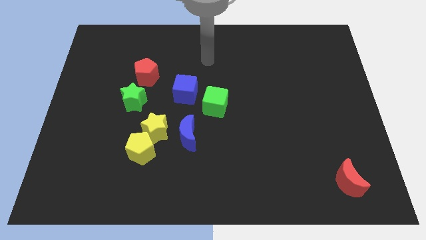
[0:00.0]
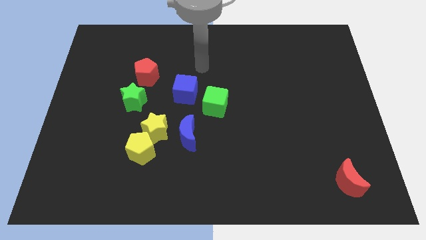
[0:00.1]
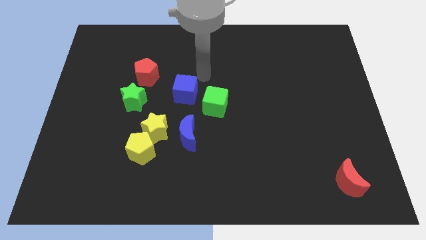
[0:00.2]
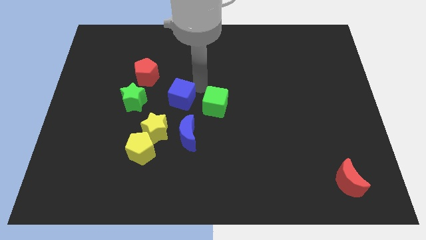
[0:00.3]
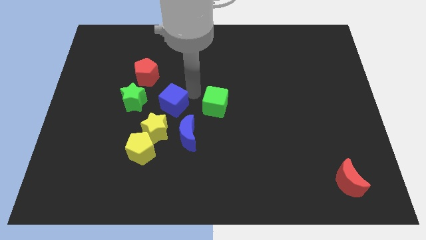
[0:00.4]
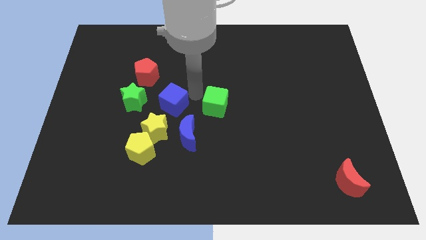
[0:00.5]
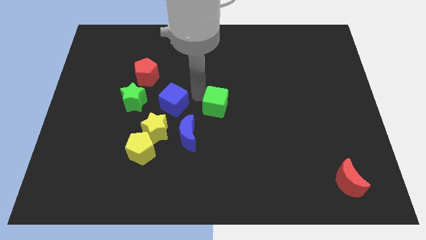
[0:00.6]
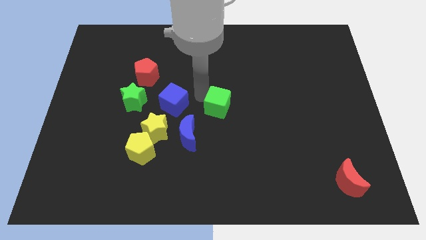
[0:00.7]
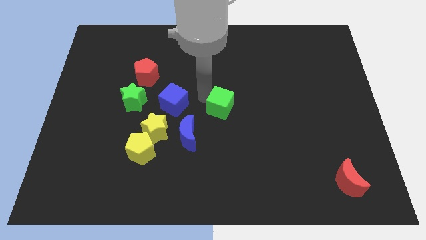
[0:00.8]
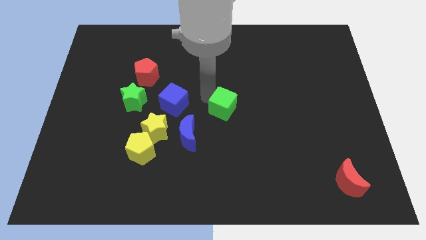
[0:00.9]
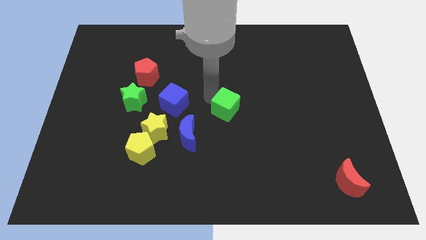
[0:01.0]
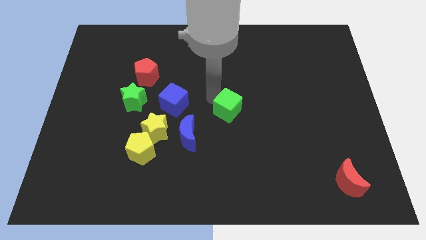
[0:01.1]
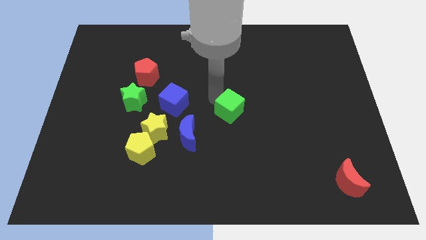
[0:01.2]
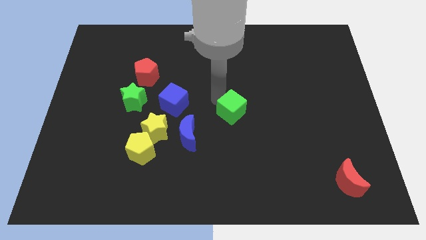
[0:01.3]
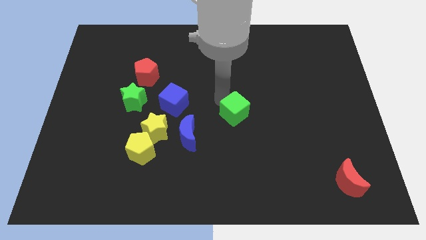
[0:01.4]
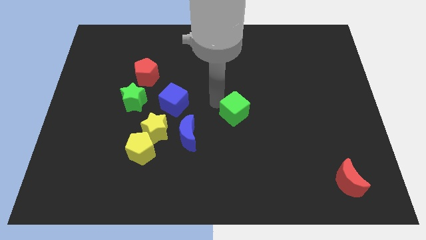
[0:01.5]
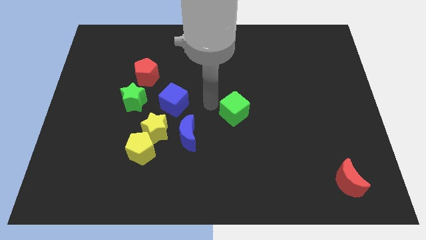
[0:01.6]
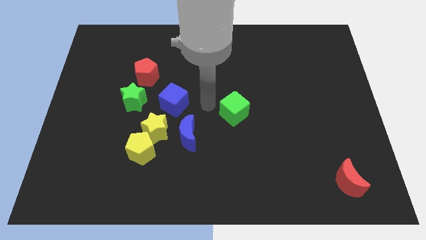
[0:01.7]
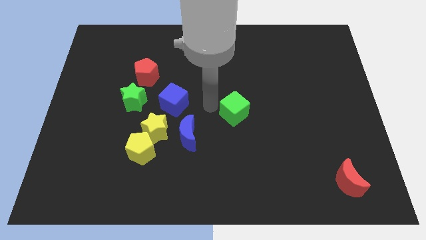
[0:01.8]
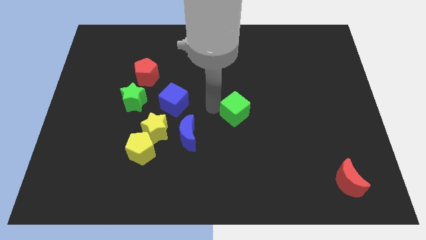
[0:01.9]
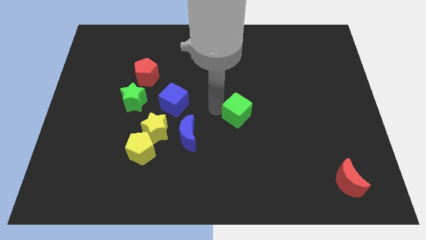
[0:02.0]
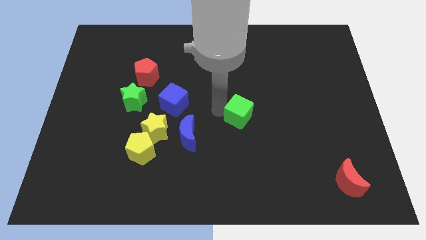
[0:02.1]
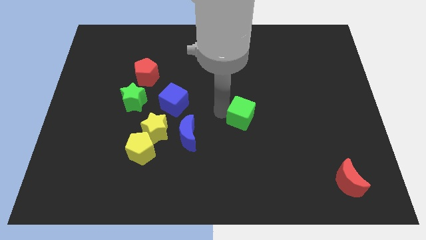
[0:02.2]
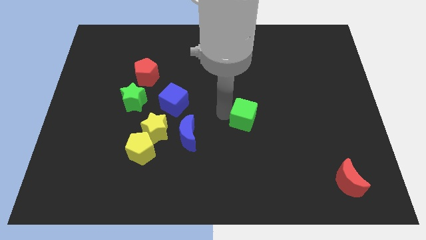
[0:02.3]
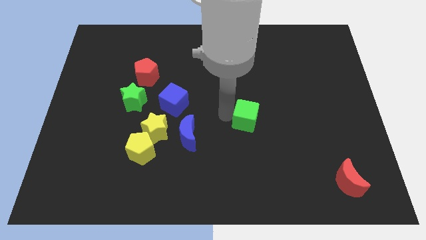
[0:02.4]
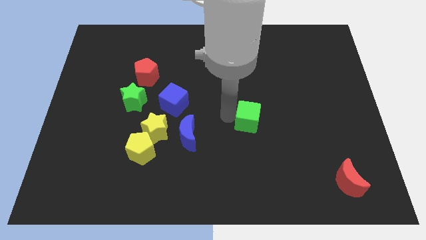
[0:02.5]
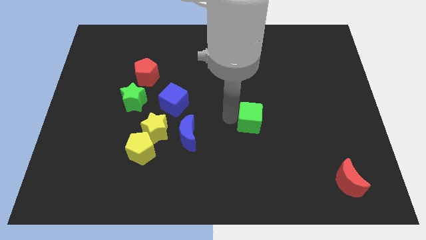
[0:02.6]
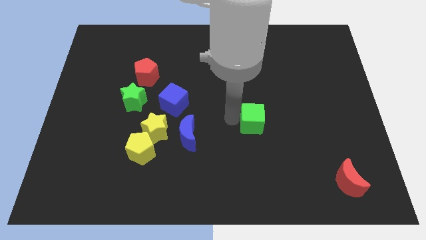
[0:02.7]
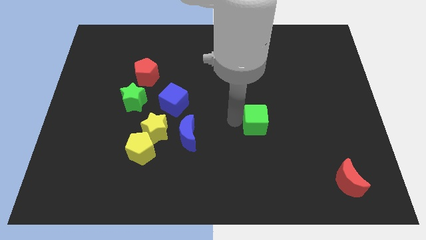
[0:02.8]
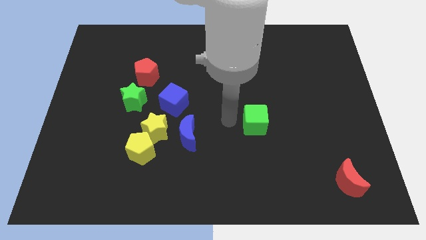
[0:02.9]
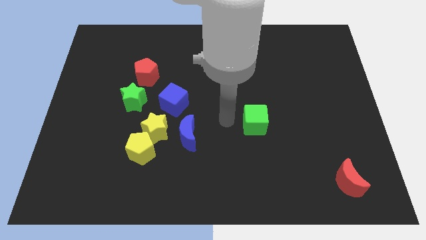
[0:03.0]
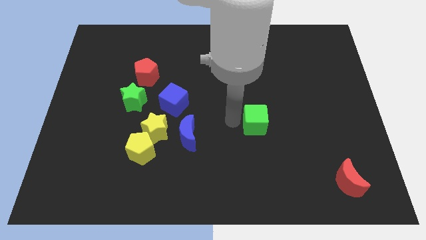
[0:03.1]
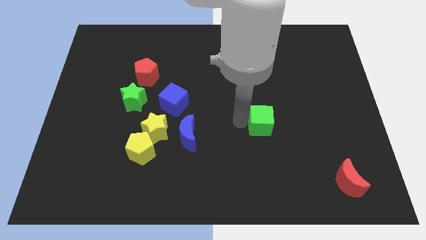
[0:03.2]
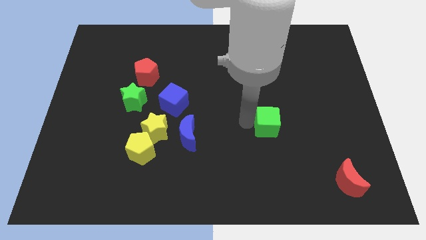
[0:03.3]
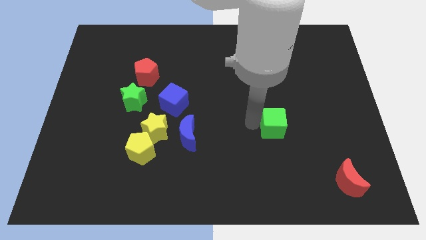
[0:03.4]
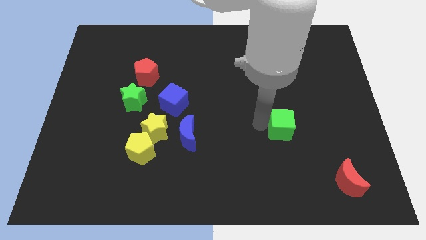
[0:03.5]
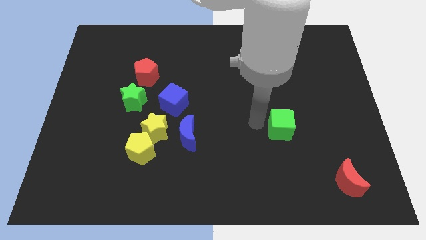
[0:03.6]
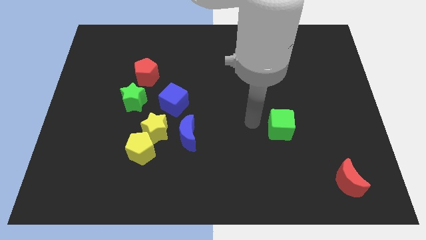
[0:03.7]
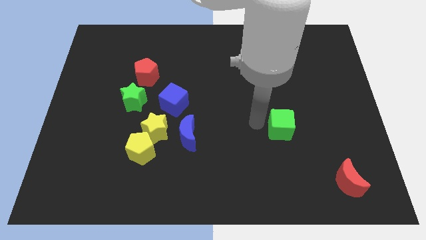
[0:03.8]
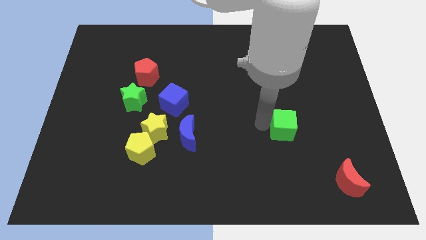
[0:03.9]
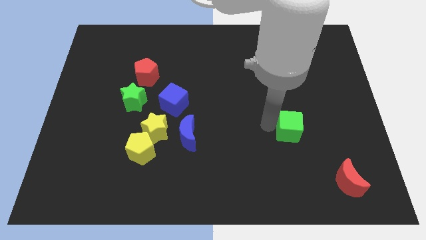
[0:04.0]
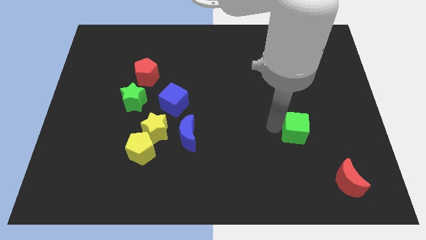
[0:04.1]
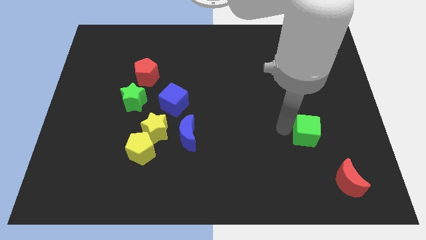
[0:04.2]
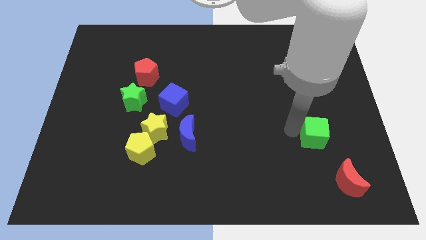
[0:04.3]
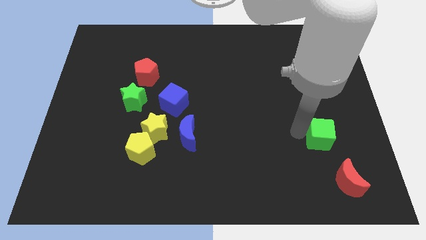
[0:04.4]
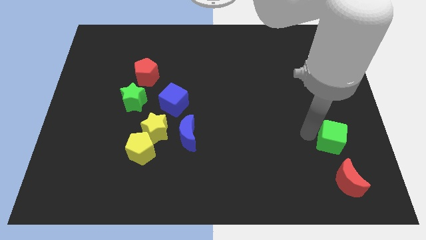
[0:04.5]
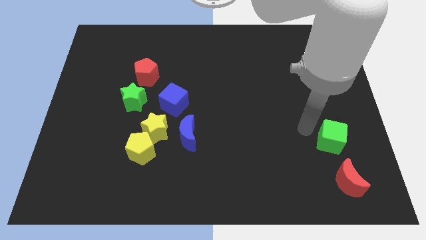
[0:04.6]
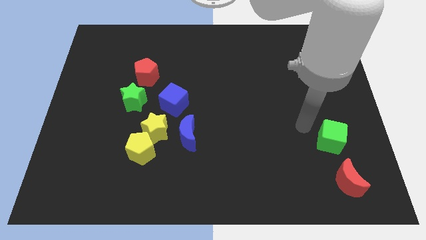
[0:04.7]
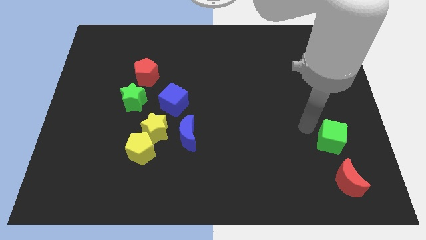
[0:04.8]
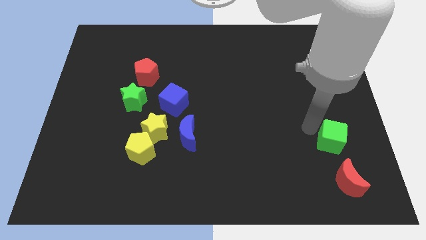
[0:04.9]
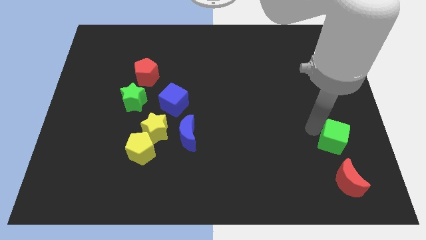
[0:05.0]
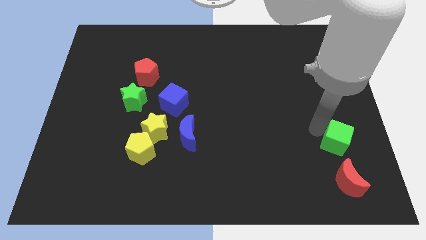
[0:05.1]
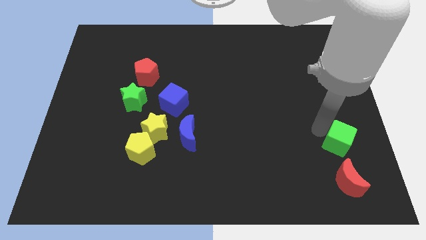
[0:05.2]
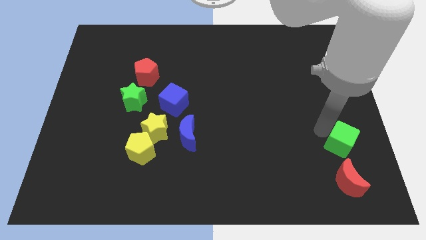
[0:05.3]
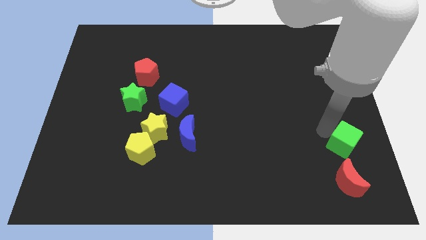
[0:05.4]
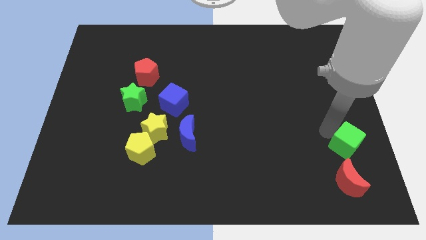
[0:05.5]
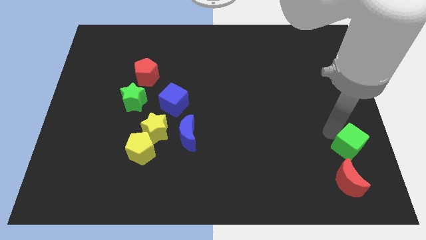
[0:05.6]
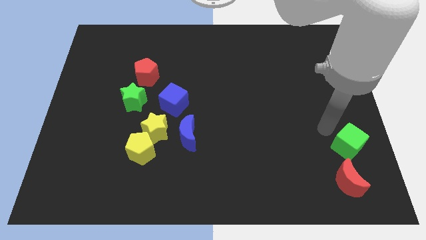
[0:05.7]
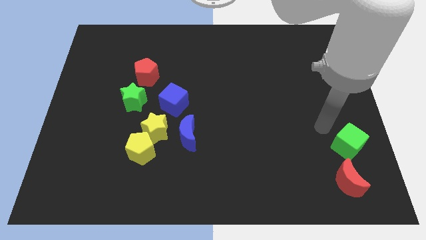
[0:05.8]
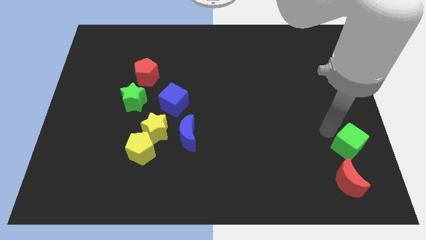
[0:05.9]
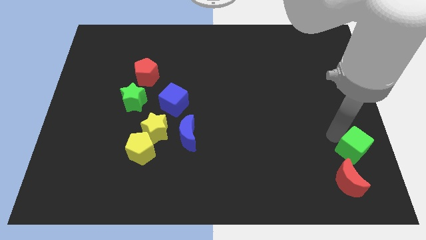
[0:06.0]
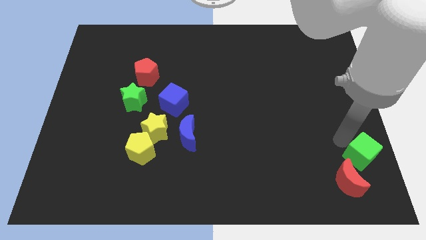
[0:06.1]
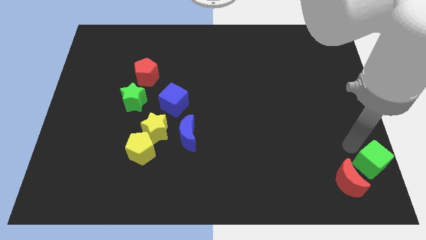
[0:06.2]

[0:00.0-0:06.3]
move the green cube to the bottom right corner
